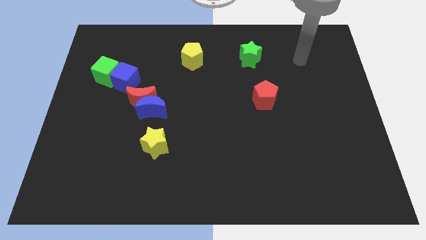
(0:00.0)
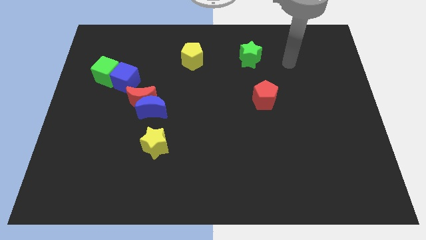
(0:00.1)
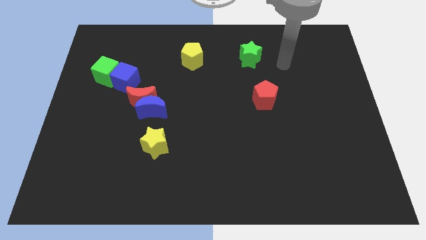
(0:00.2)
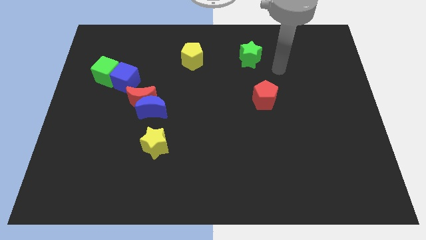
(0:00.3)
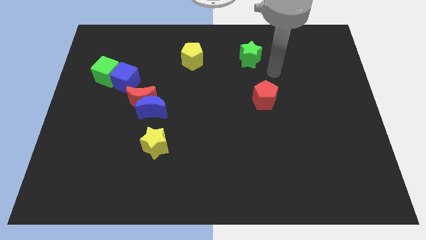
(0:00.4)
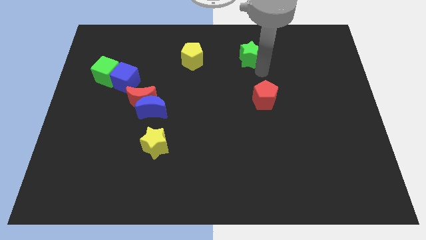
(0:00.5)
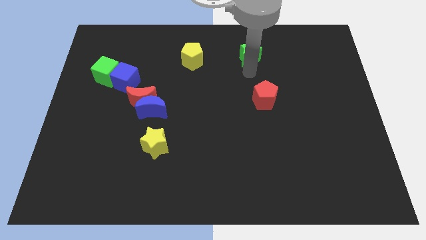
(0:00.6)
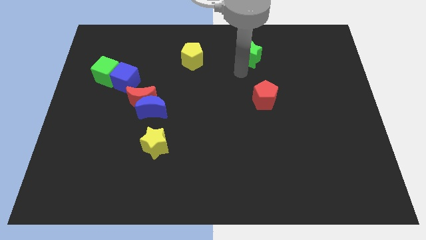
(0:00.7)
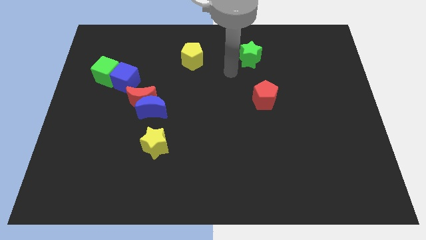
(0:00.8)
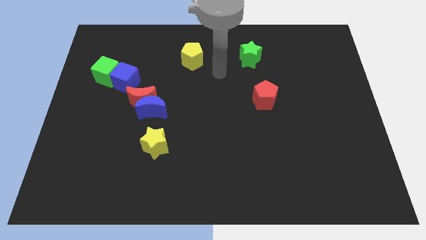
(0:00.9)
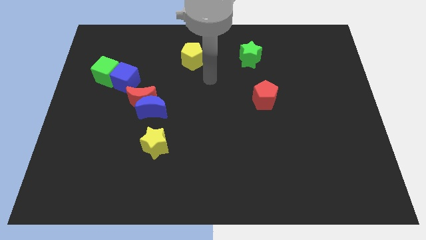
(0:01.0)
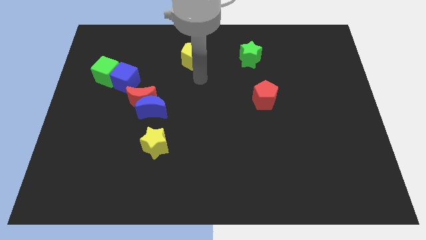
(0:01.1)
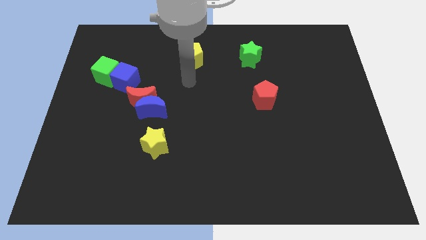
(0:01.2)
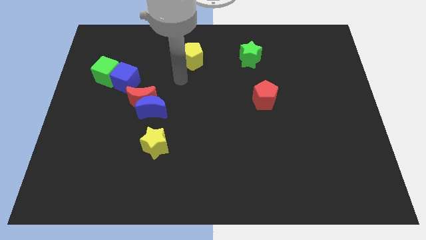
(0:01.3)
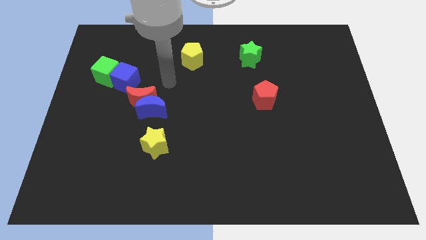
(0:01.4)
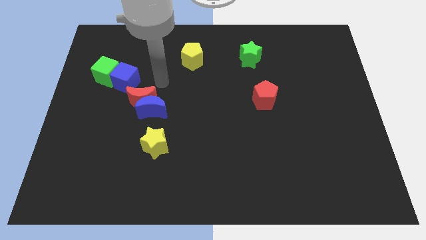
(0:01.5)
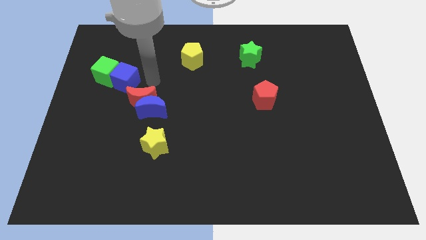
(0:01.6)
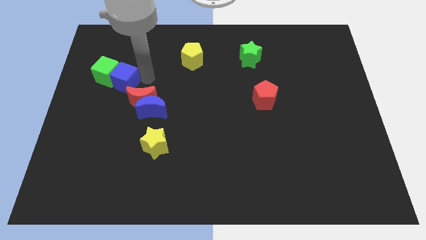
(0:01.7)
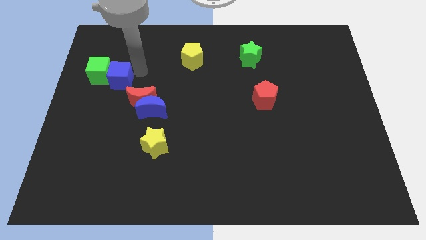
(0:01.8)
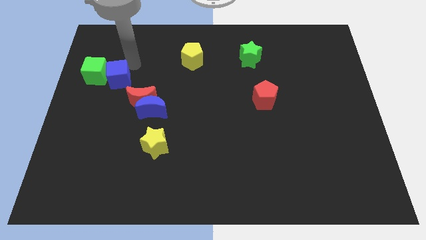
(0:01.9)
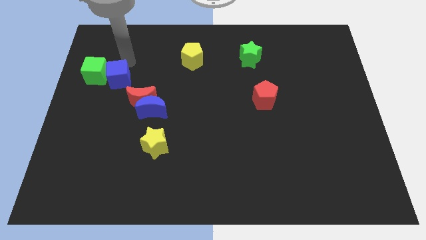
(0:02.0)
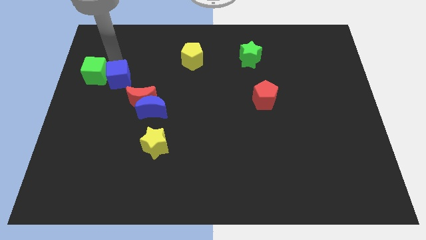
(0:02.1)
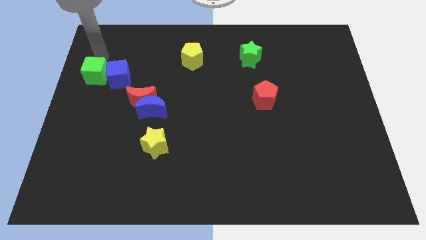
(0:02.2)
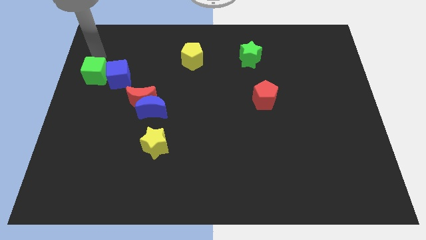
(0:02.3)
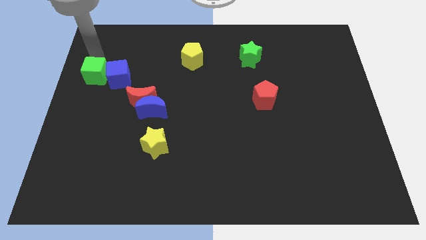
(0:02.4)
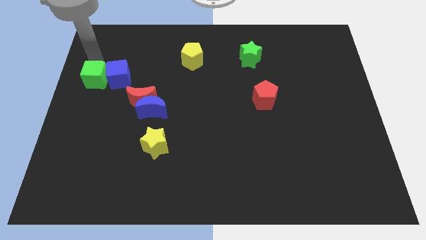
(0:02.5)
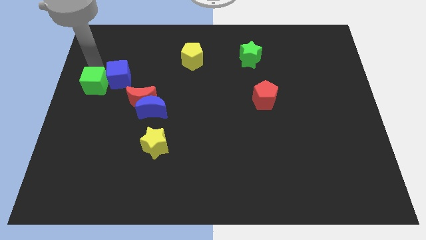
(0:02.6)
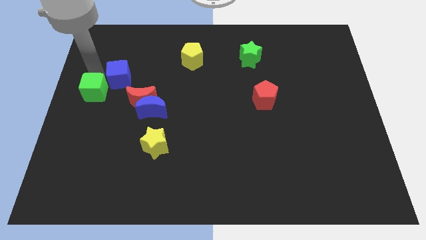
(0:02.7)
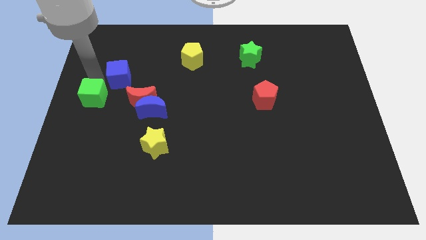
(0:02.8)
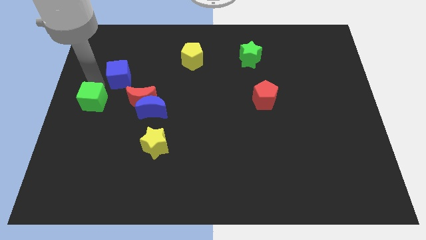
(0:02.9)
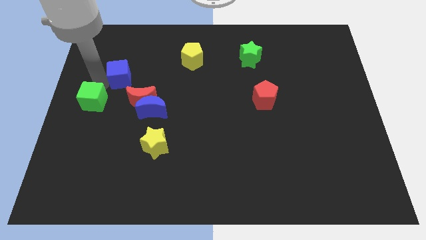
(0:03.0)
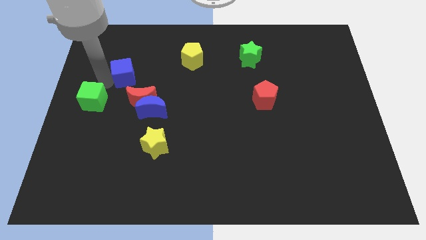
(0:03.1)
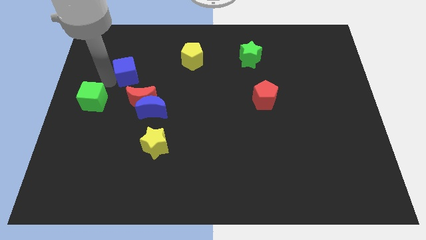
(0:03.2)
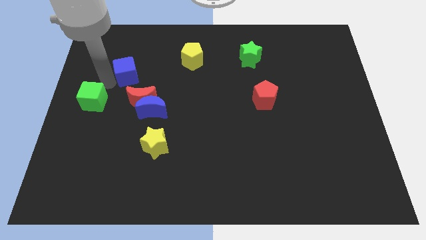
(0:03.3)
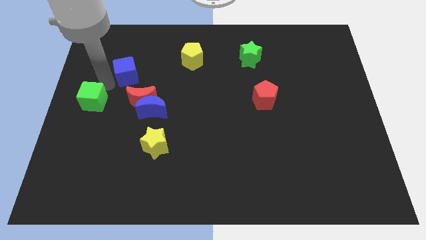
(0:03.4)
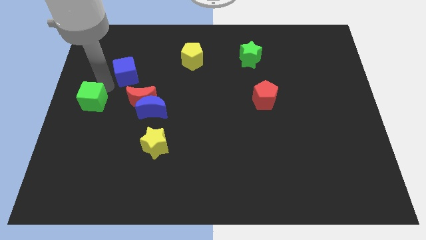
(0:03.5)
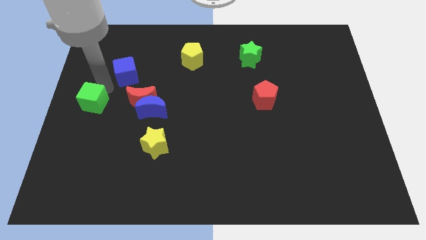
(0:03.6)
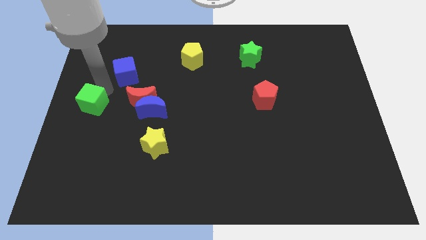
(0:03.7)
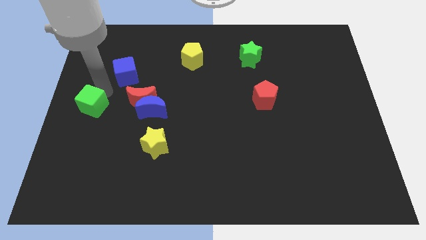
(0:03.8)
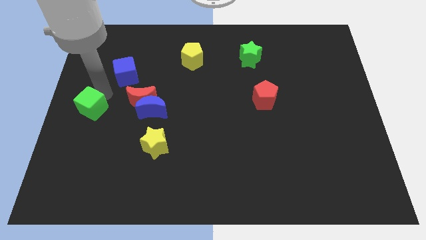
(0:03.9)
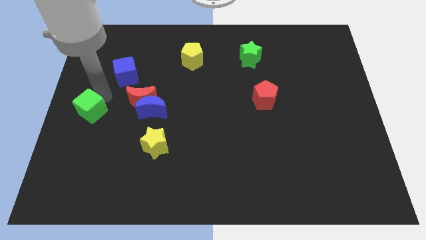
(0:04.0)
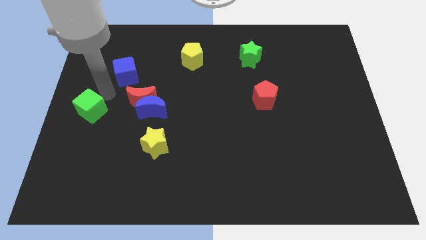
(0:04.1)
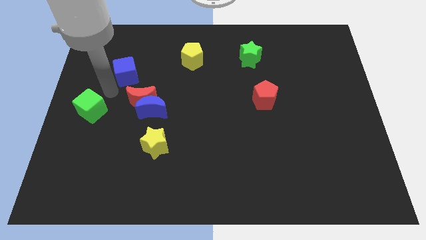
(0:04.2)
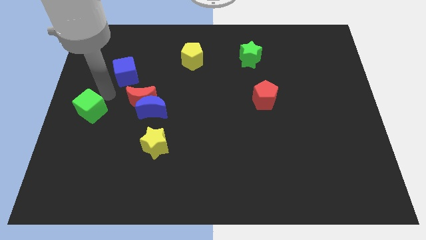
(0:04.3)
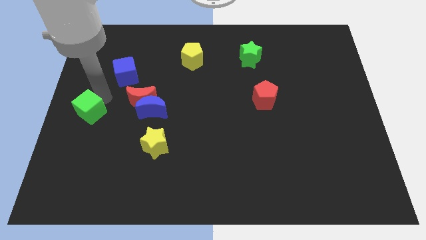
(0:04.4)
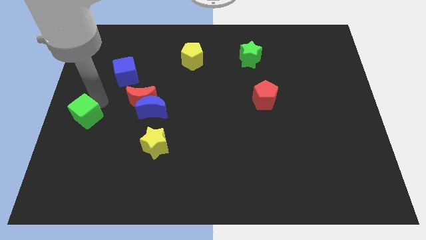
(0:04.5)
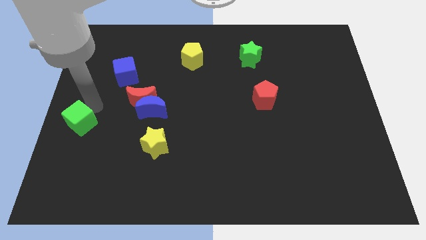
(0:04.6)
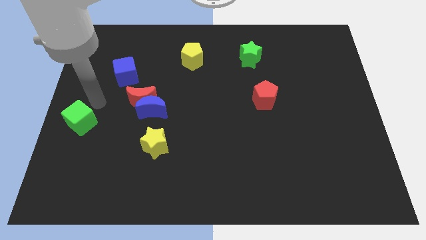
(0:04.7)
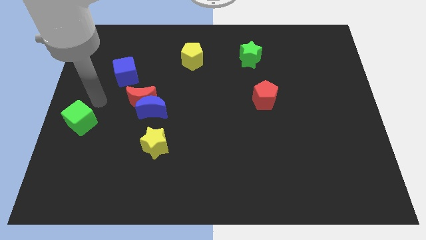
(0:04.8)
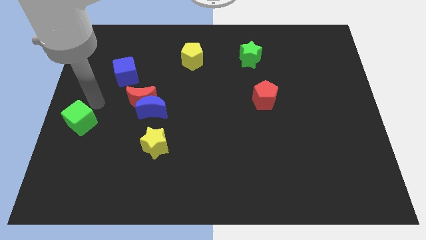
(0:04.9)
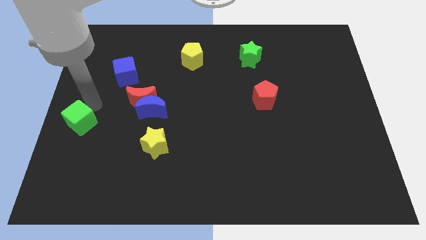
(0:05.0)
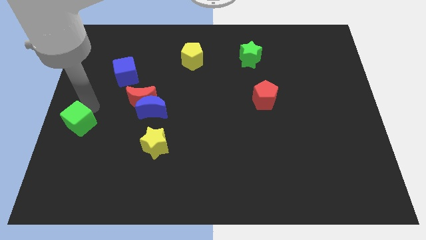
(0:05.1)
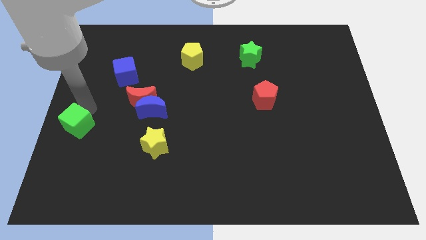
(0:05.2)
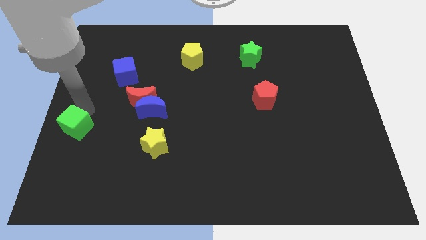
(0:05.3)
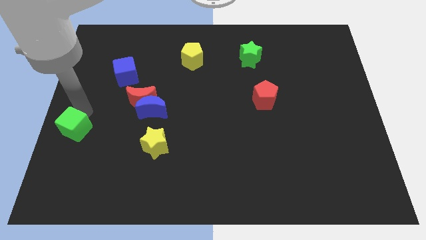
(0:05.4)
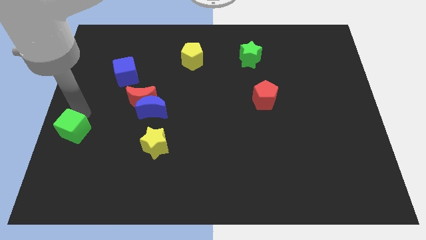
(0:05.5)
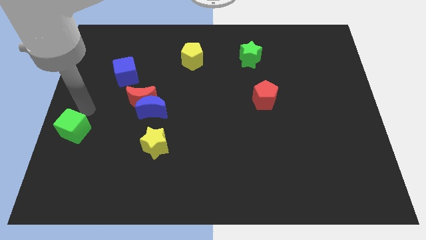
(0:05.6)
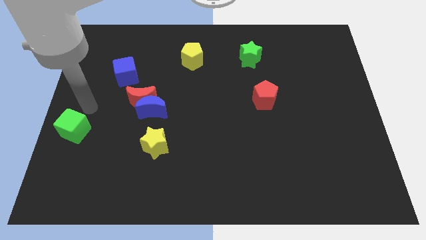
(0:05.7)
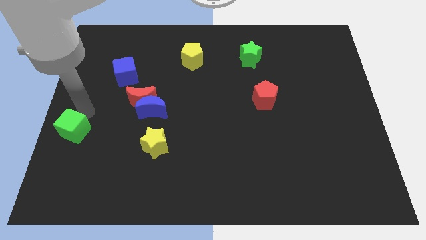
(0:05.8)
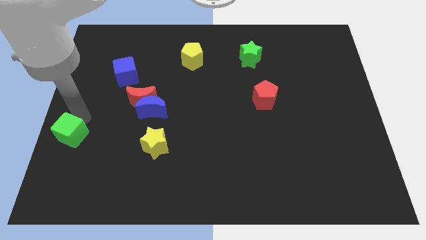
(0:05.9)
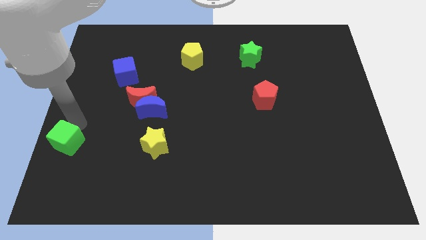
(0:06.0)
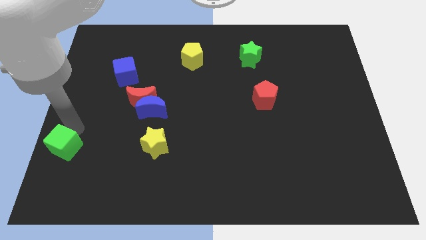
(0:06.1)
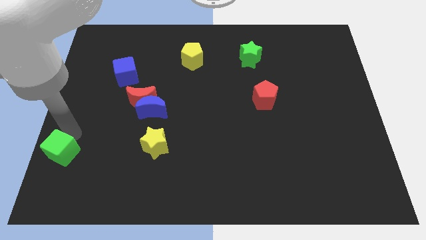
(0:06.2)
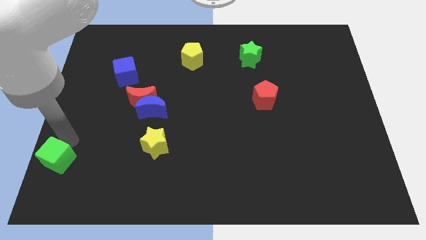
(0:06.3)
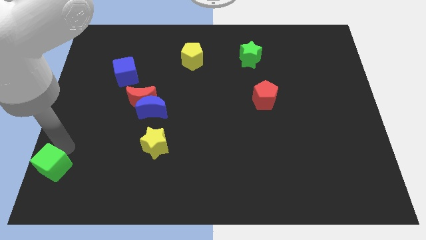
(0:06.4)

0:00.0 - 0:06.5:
move the green cube to the lower left corner
